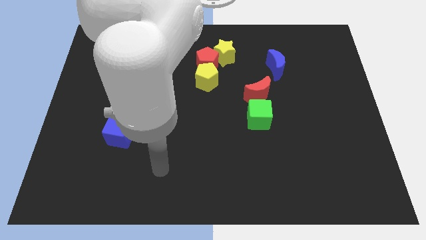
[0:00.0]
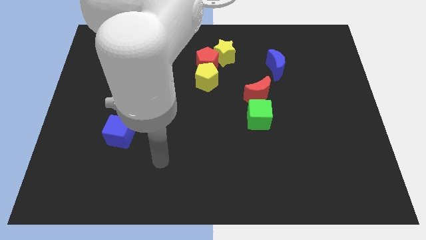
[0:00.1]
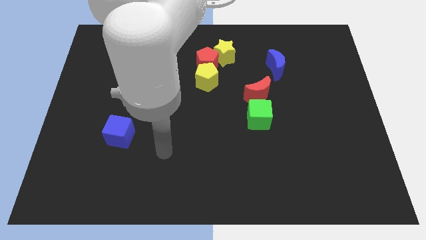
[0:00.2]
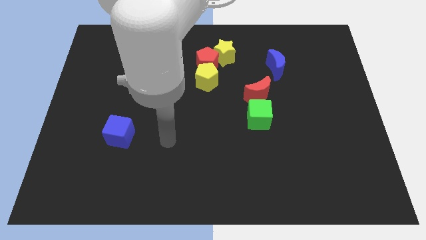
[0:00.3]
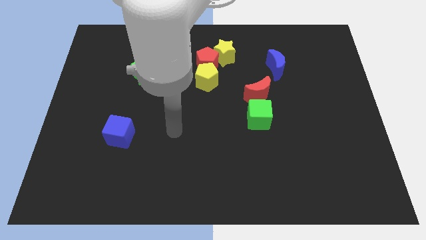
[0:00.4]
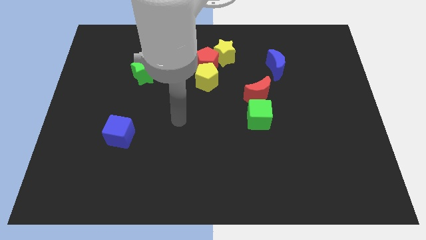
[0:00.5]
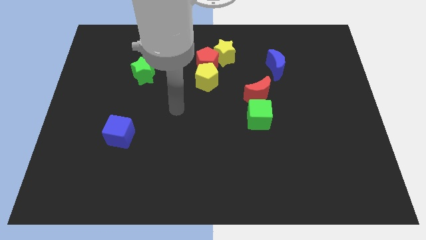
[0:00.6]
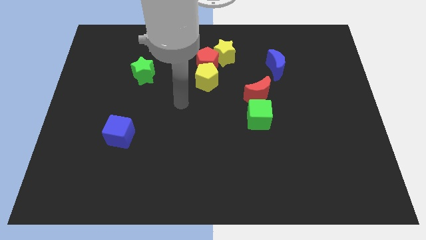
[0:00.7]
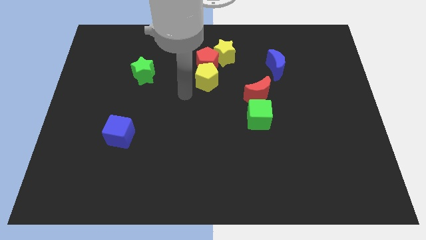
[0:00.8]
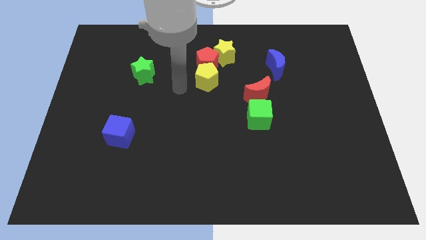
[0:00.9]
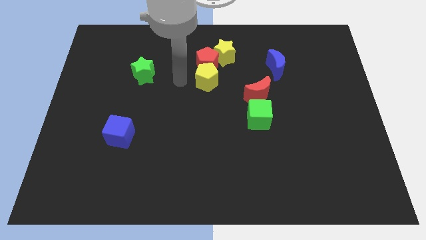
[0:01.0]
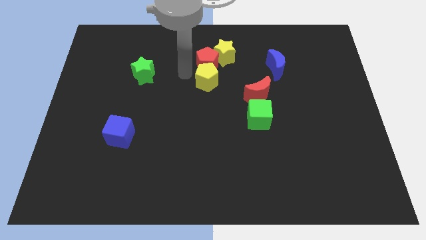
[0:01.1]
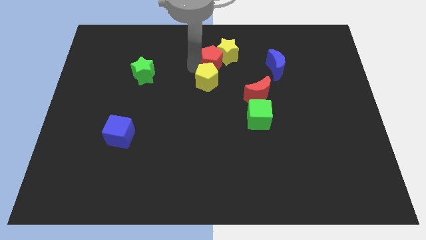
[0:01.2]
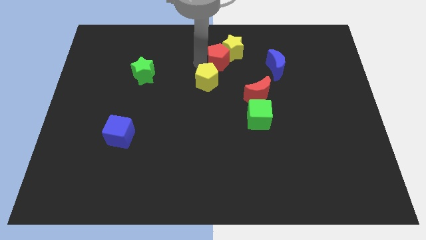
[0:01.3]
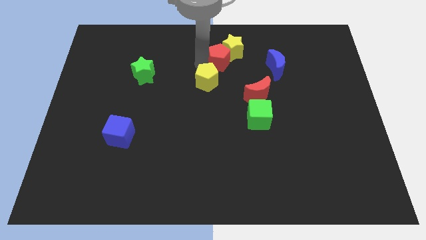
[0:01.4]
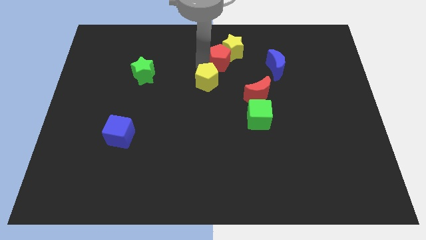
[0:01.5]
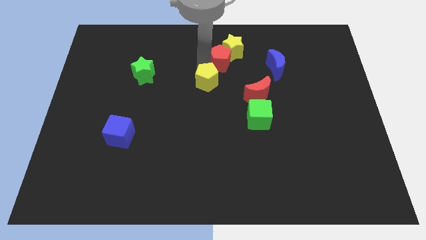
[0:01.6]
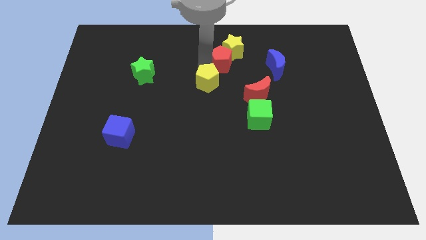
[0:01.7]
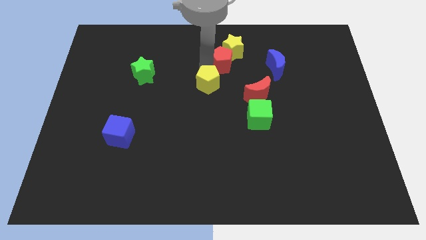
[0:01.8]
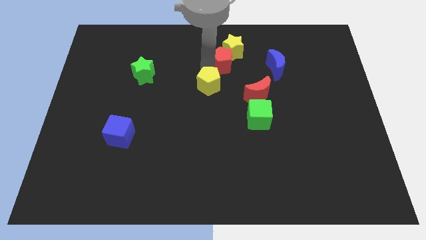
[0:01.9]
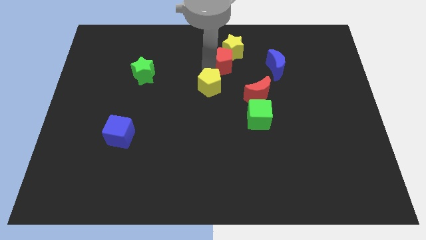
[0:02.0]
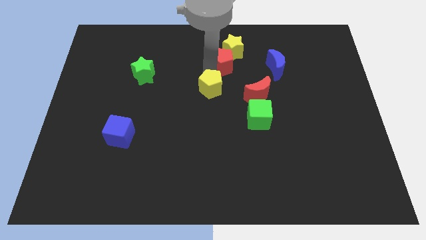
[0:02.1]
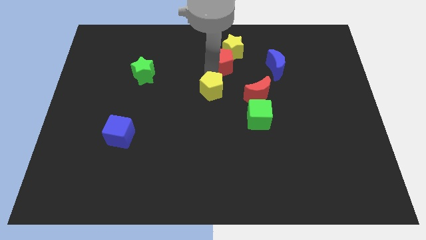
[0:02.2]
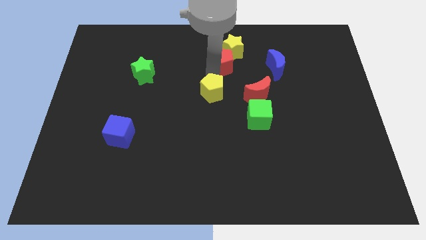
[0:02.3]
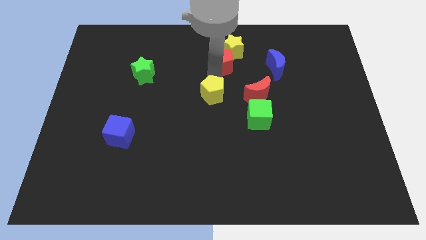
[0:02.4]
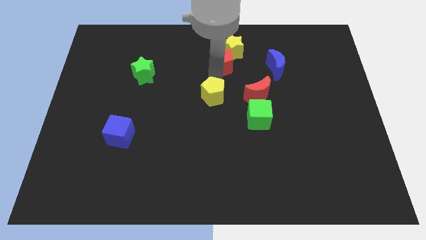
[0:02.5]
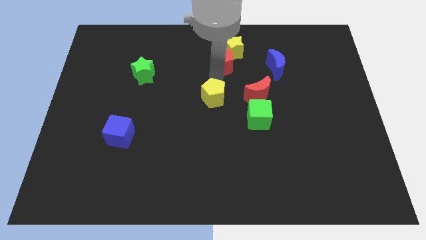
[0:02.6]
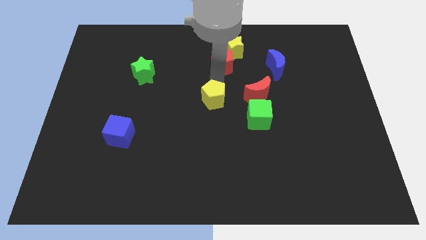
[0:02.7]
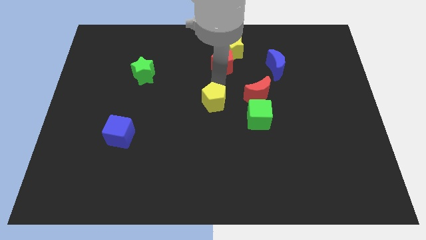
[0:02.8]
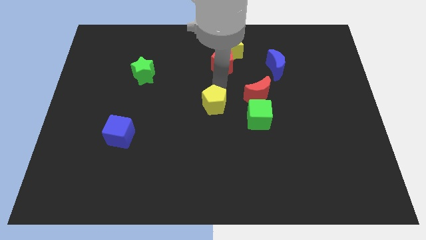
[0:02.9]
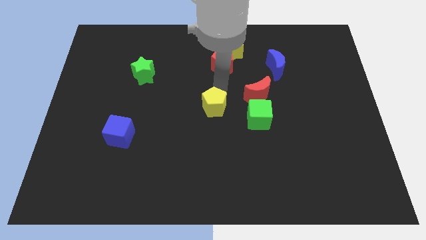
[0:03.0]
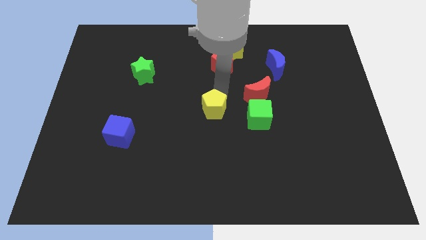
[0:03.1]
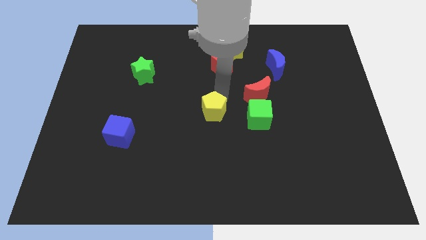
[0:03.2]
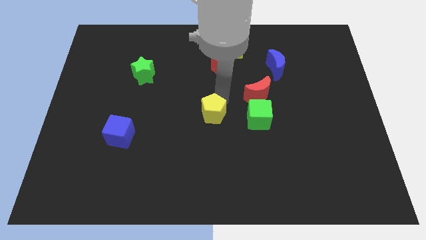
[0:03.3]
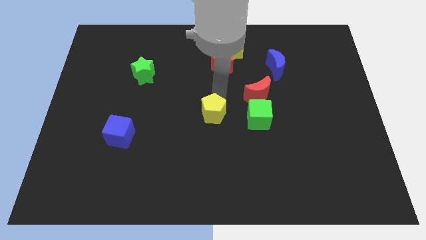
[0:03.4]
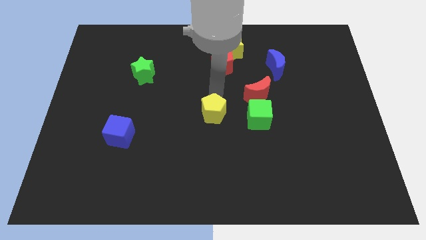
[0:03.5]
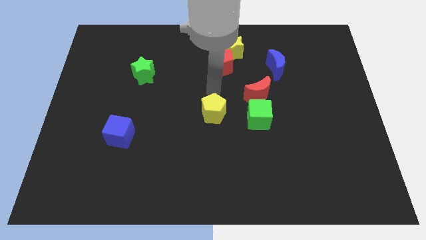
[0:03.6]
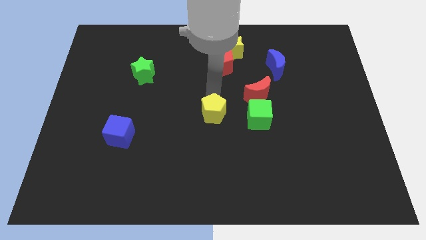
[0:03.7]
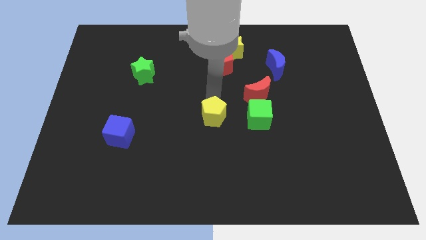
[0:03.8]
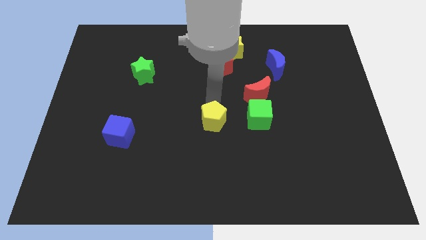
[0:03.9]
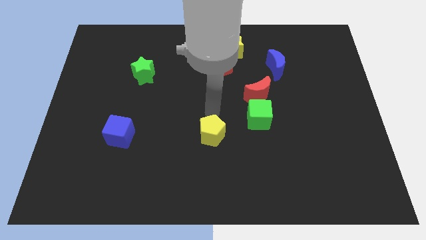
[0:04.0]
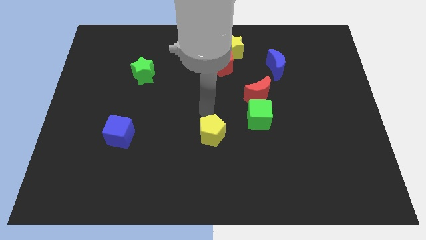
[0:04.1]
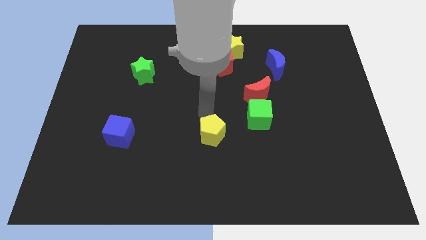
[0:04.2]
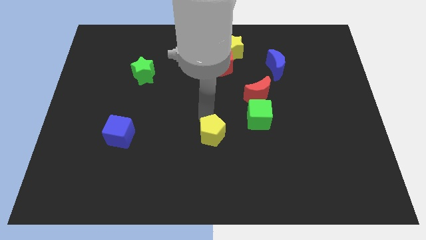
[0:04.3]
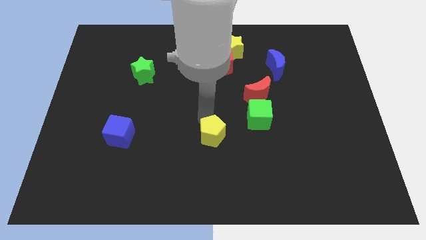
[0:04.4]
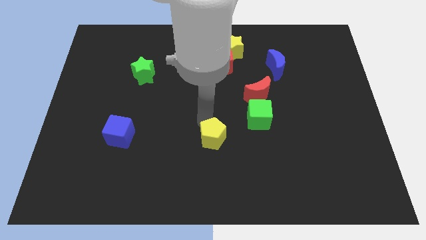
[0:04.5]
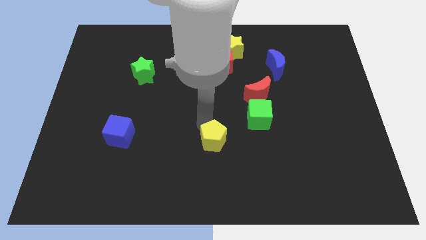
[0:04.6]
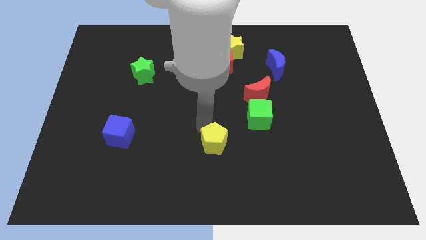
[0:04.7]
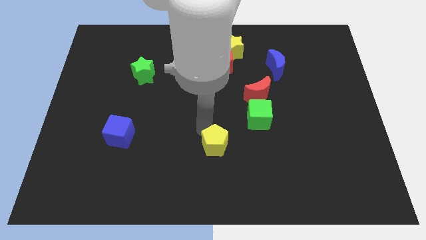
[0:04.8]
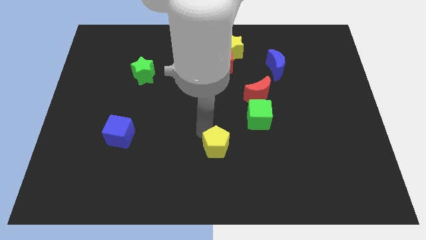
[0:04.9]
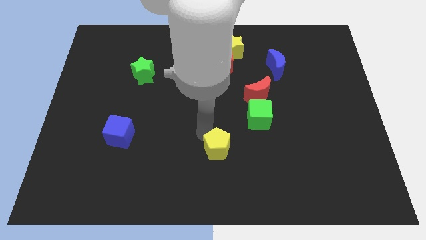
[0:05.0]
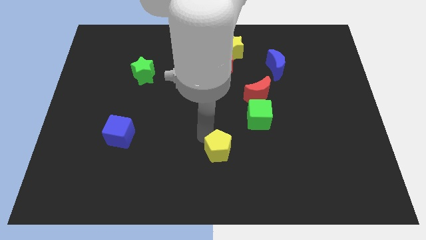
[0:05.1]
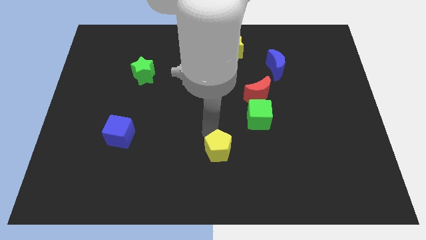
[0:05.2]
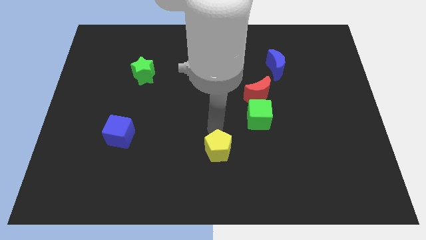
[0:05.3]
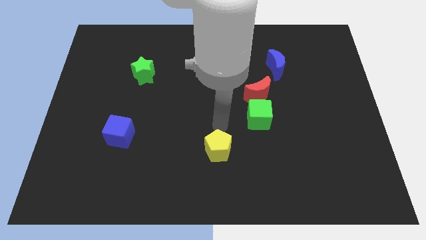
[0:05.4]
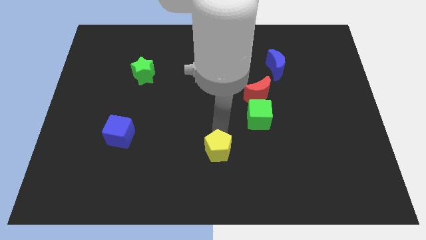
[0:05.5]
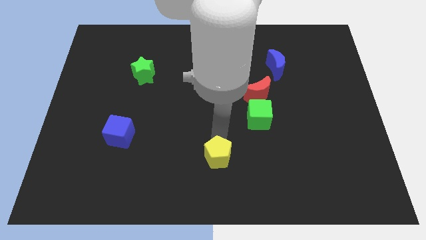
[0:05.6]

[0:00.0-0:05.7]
push the yellow pentagon to the bottom side
